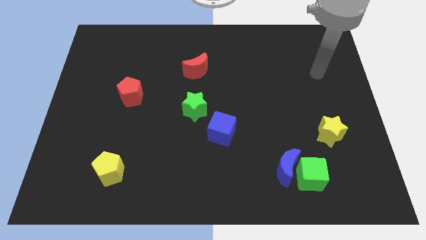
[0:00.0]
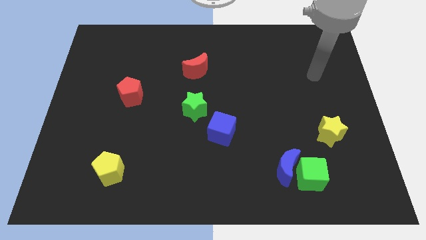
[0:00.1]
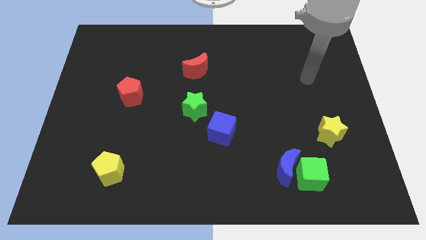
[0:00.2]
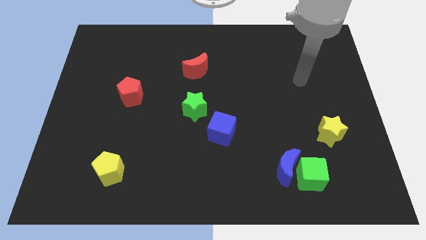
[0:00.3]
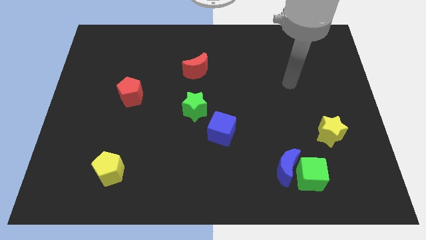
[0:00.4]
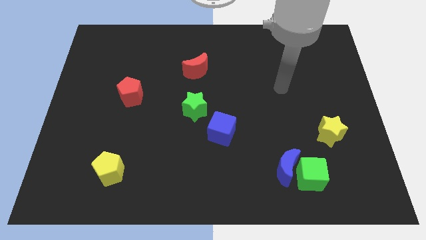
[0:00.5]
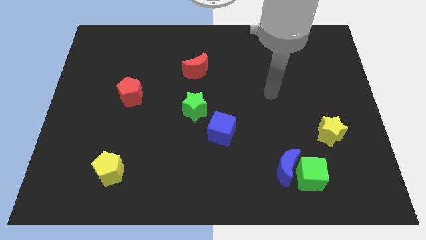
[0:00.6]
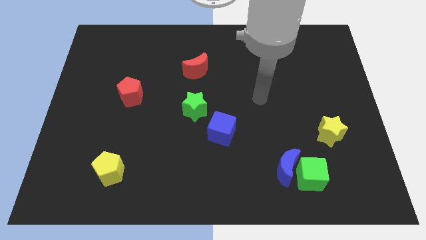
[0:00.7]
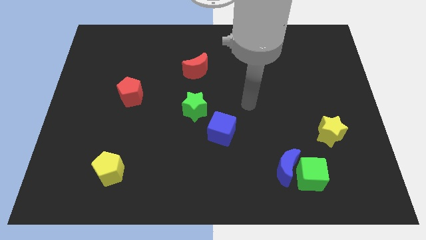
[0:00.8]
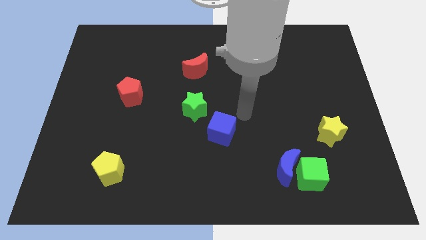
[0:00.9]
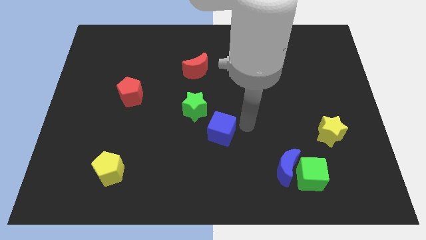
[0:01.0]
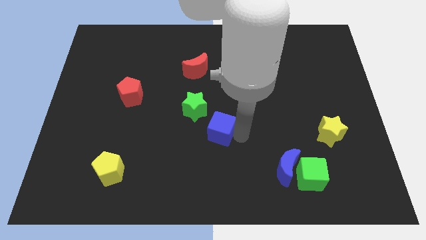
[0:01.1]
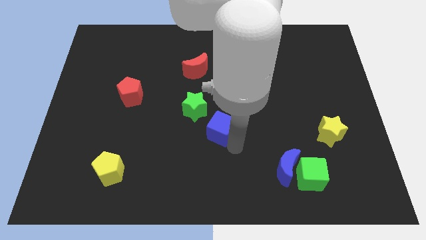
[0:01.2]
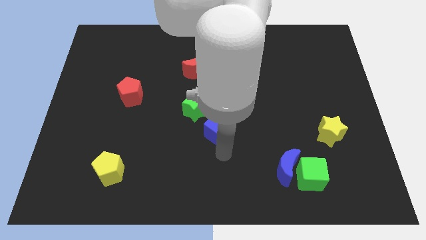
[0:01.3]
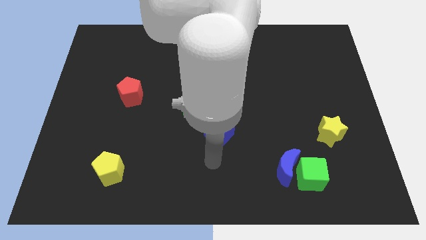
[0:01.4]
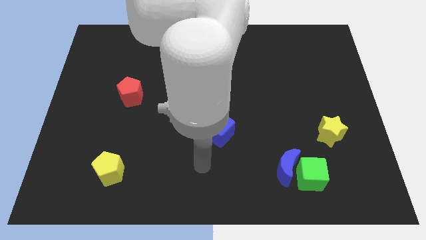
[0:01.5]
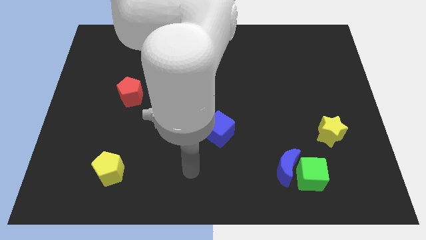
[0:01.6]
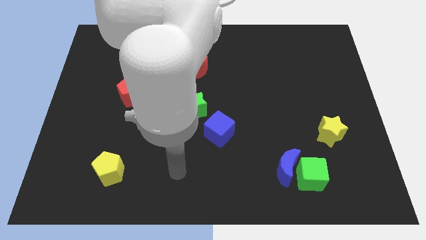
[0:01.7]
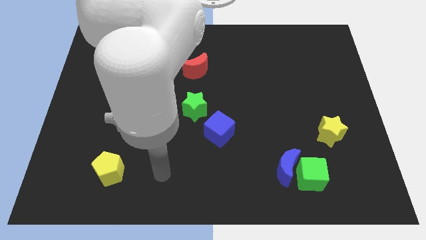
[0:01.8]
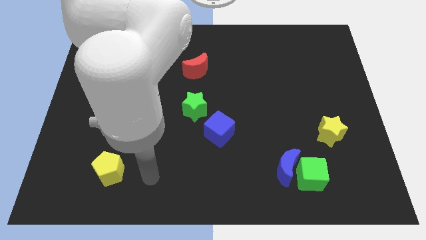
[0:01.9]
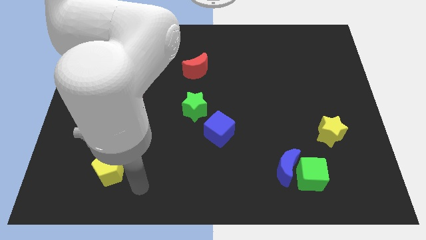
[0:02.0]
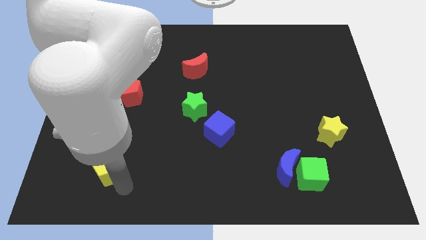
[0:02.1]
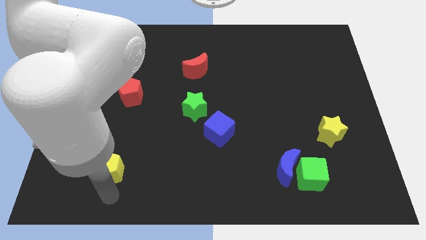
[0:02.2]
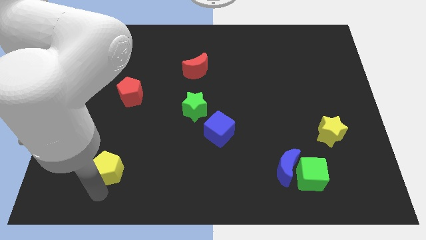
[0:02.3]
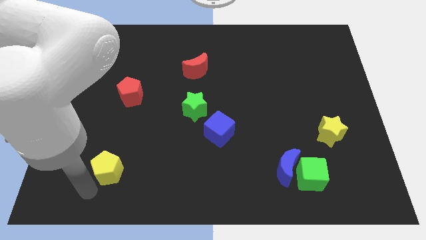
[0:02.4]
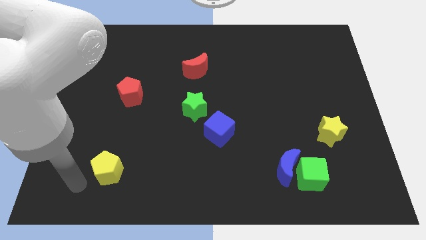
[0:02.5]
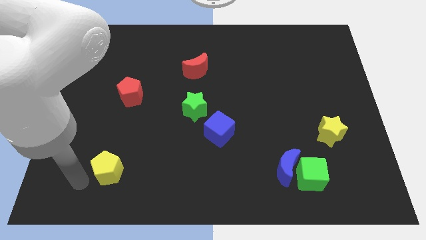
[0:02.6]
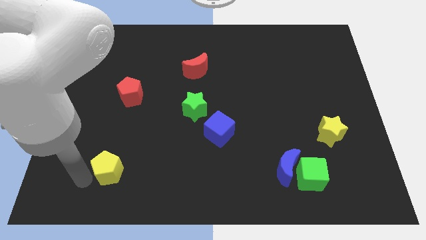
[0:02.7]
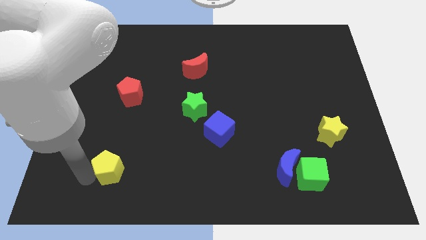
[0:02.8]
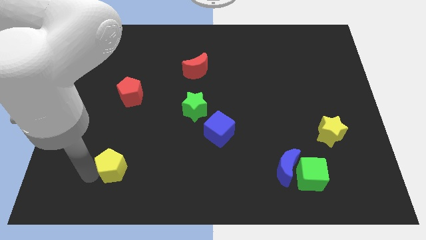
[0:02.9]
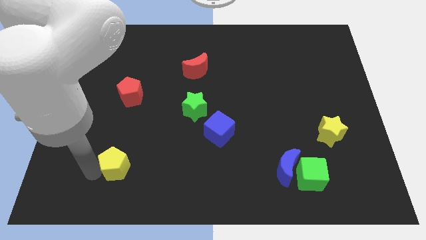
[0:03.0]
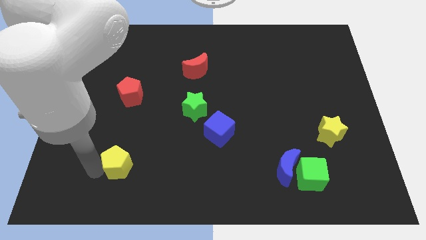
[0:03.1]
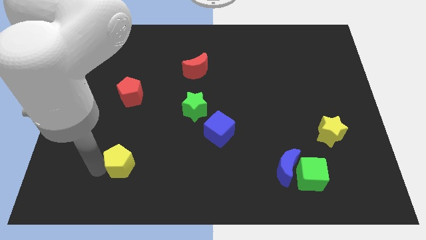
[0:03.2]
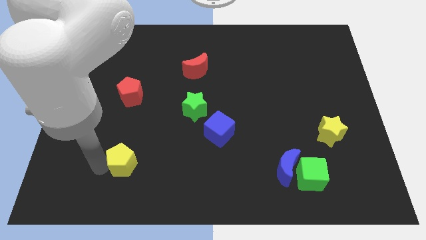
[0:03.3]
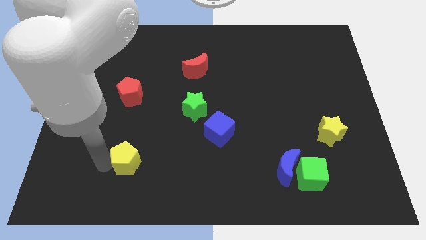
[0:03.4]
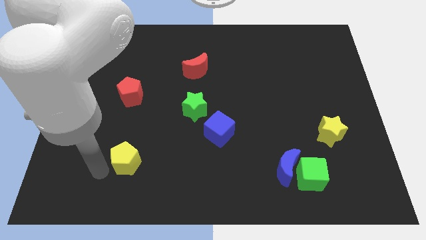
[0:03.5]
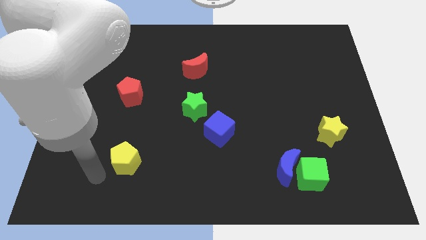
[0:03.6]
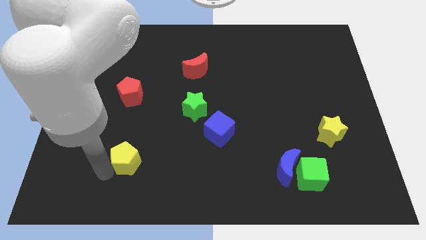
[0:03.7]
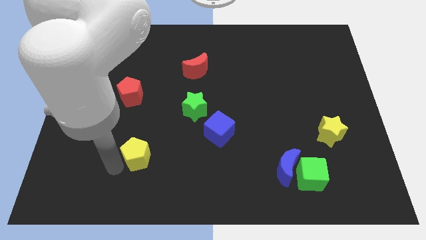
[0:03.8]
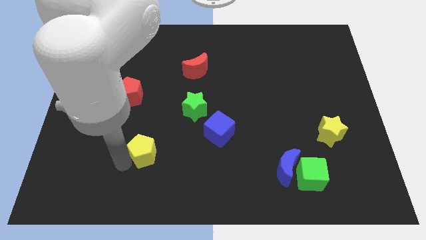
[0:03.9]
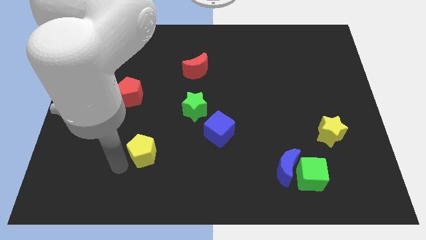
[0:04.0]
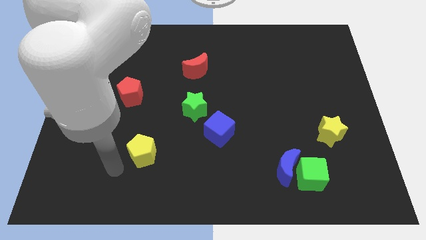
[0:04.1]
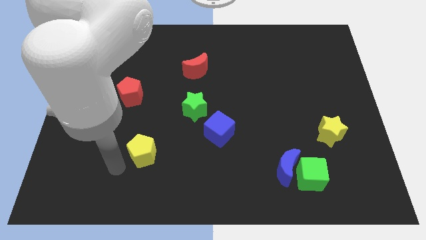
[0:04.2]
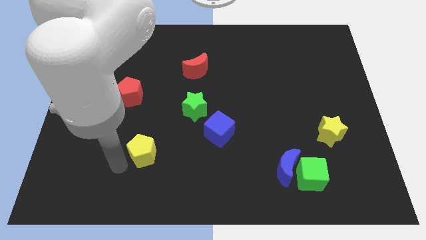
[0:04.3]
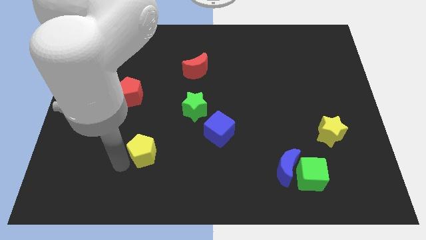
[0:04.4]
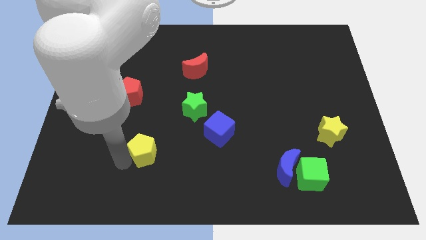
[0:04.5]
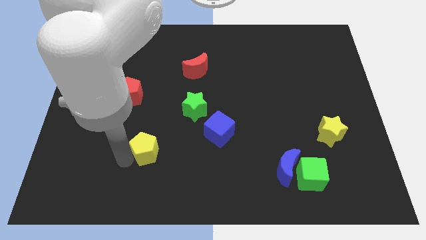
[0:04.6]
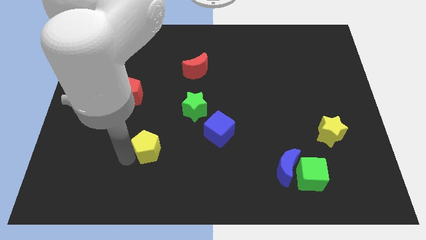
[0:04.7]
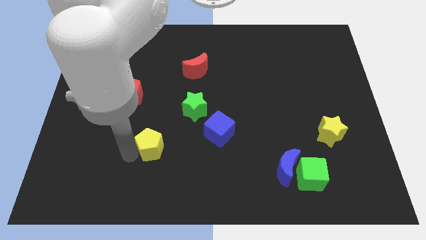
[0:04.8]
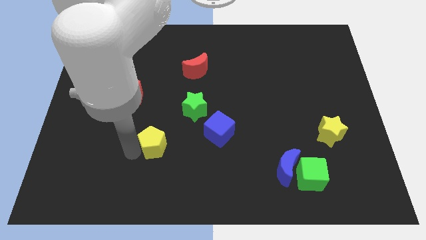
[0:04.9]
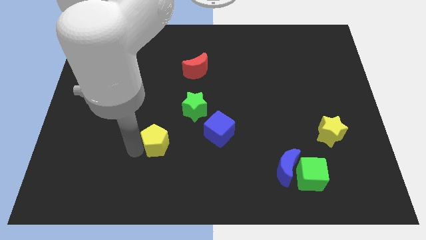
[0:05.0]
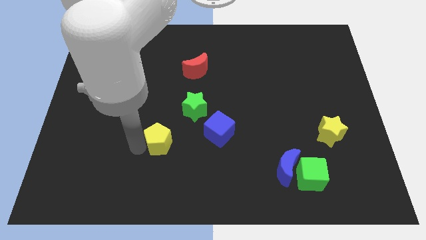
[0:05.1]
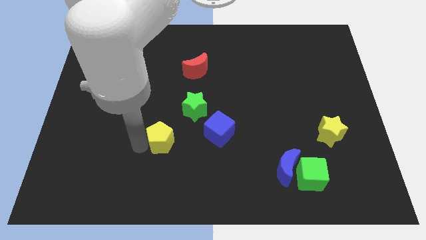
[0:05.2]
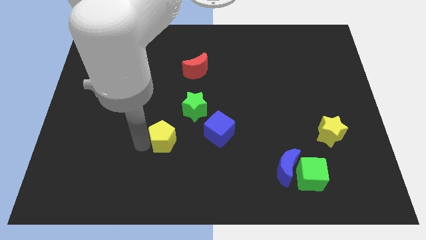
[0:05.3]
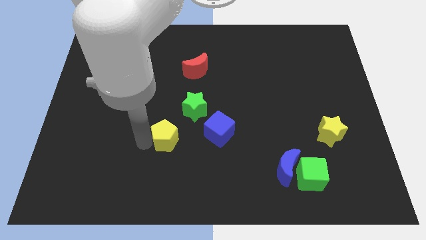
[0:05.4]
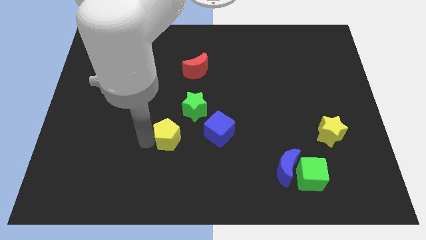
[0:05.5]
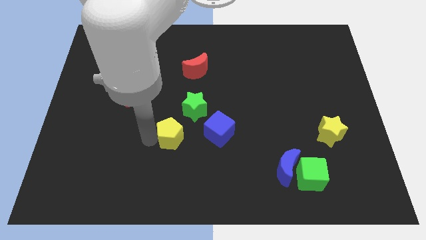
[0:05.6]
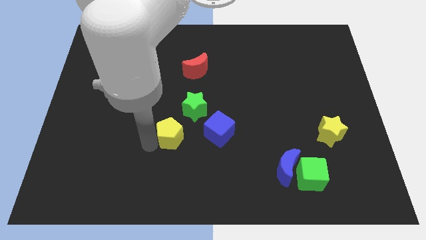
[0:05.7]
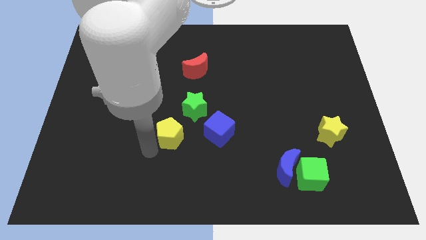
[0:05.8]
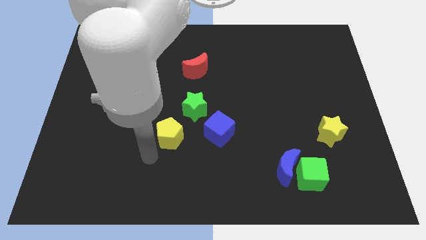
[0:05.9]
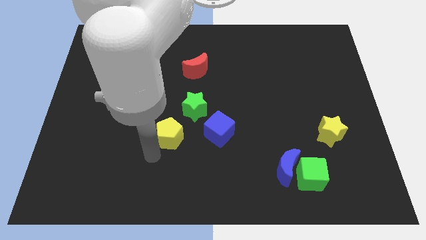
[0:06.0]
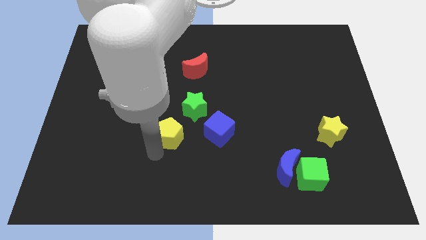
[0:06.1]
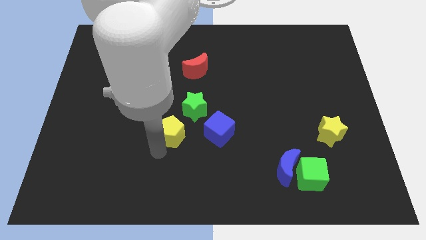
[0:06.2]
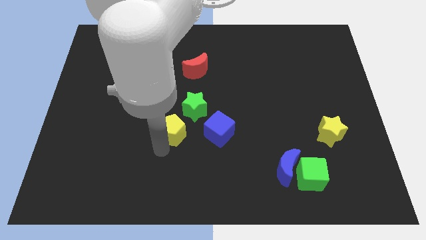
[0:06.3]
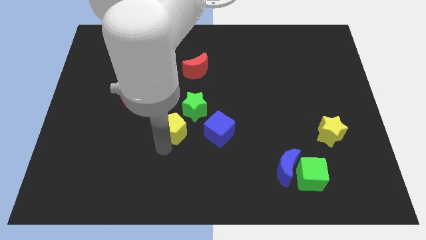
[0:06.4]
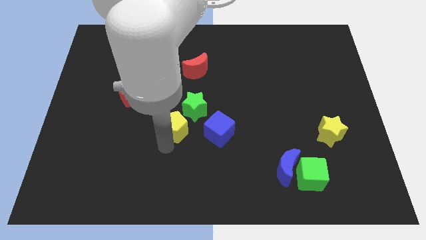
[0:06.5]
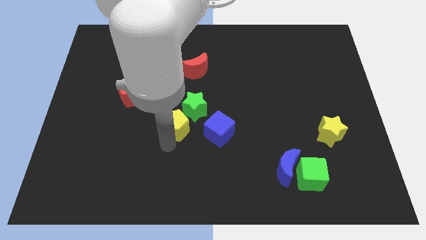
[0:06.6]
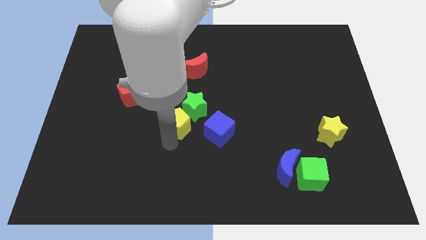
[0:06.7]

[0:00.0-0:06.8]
put the yellow pentagon towards the green star

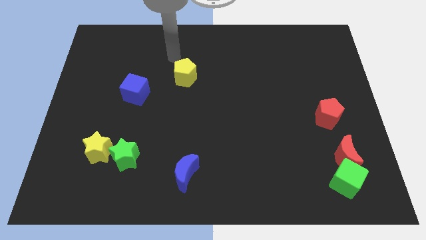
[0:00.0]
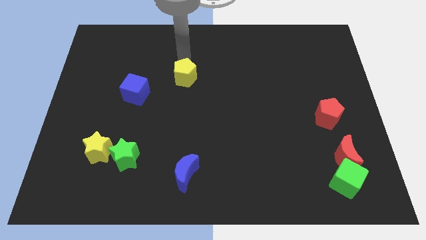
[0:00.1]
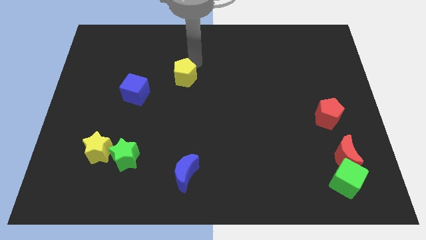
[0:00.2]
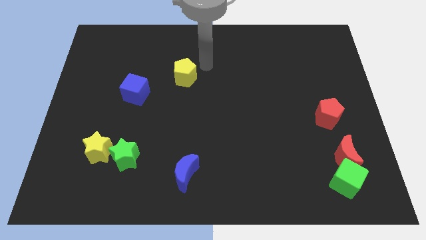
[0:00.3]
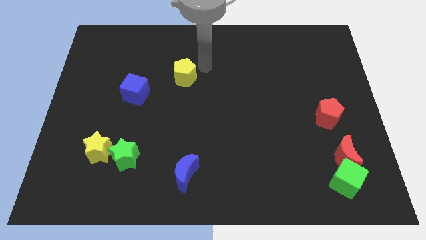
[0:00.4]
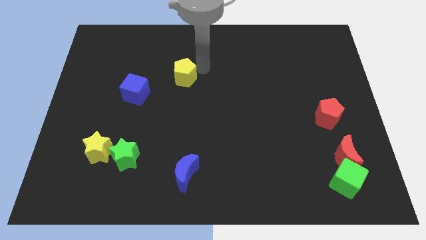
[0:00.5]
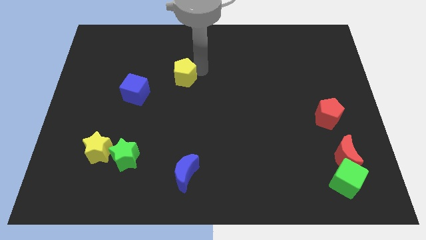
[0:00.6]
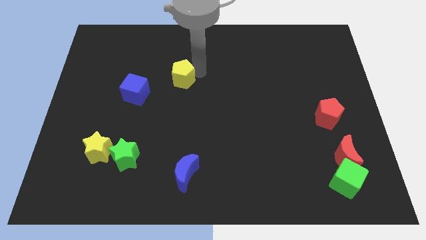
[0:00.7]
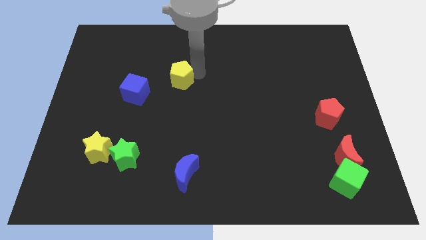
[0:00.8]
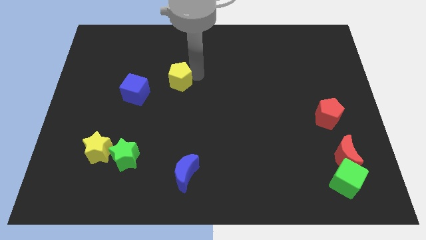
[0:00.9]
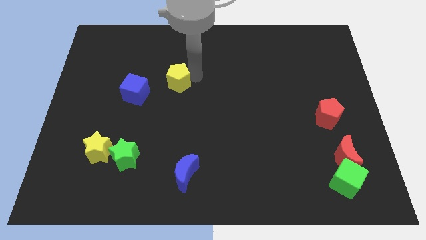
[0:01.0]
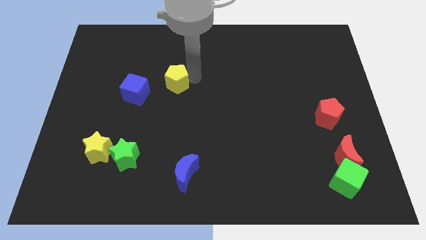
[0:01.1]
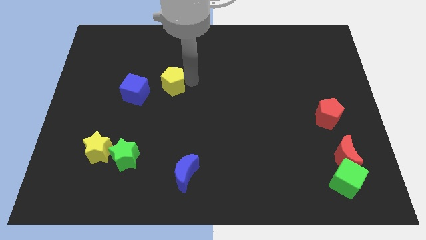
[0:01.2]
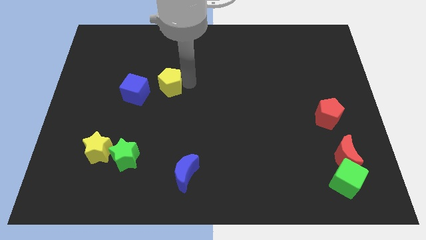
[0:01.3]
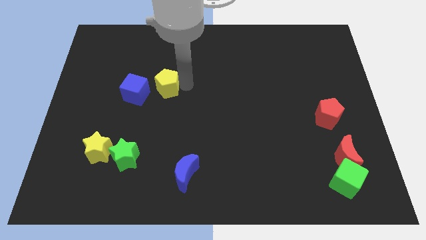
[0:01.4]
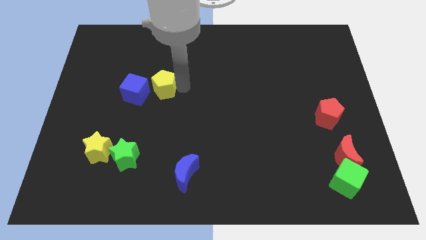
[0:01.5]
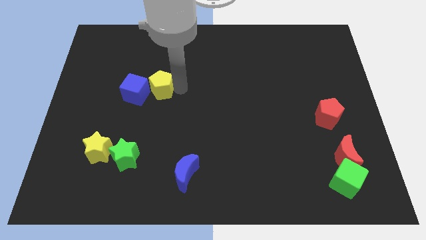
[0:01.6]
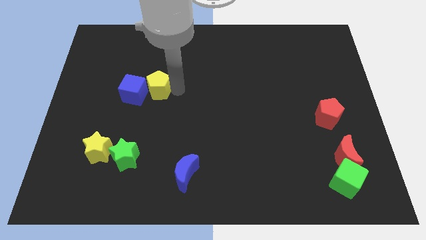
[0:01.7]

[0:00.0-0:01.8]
push the yellow pentagon towards the blue cube
